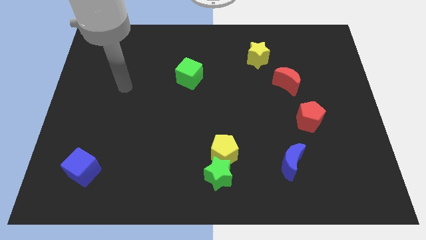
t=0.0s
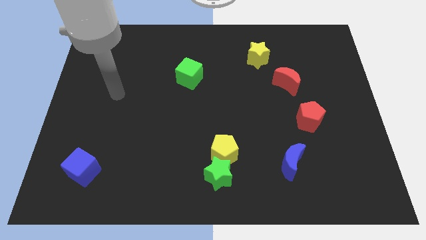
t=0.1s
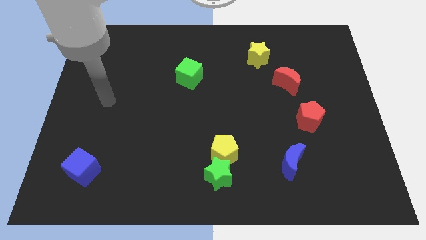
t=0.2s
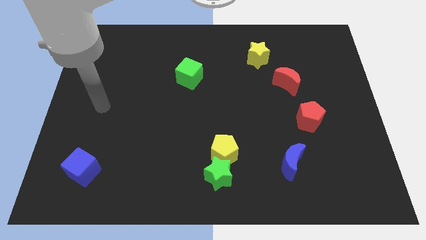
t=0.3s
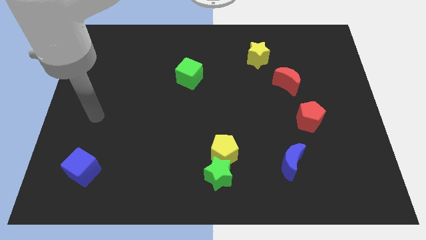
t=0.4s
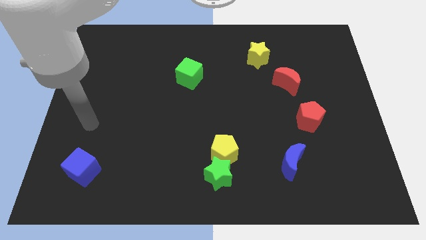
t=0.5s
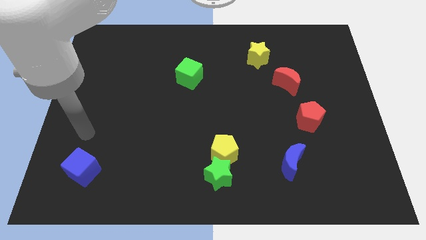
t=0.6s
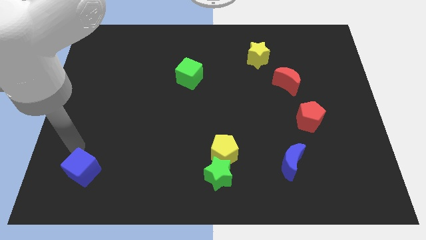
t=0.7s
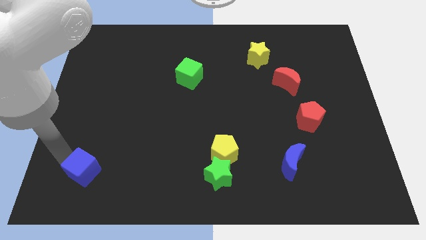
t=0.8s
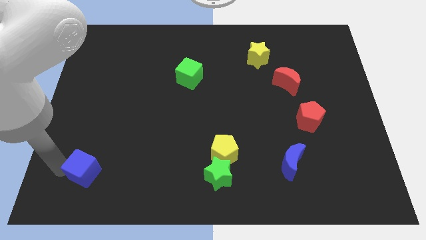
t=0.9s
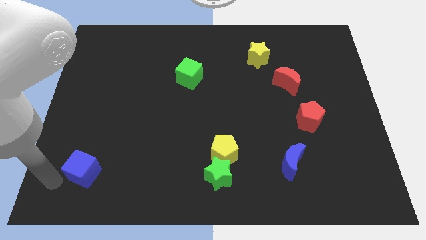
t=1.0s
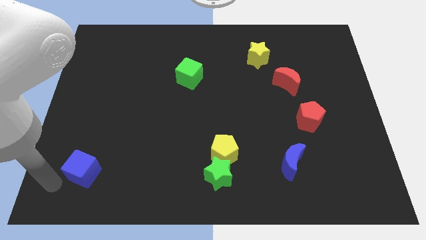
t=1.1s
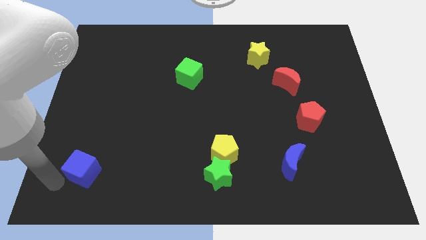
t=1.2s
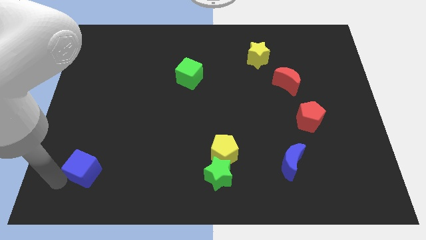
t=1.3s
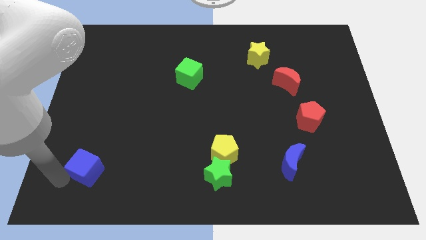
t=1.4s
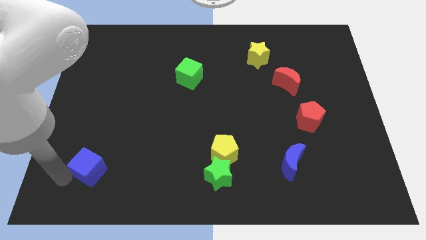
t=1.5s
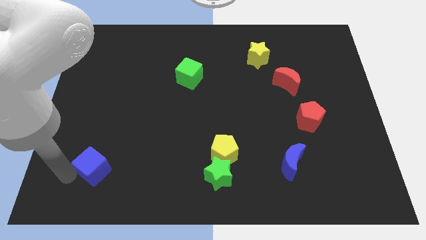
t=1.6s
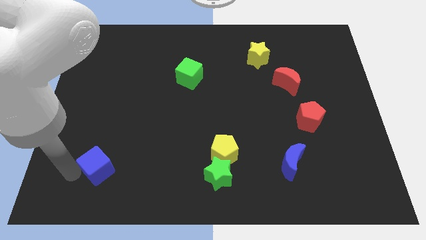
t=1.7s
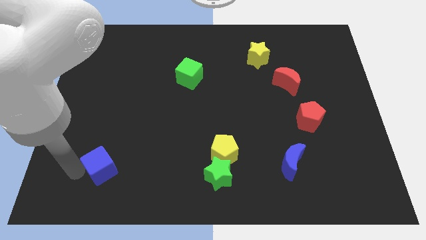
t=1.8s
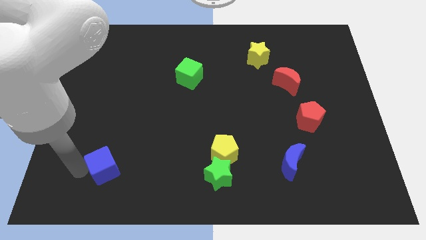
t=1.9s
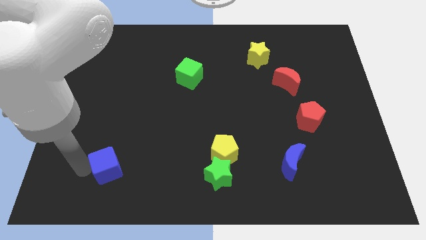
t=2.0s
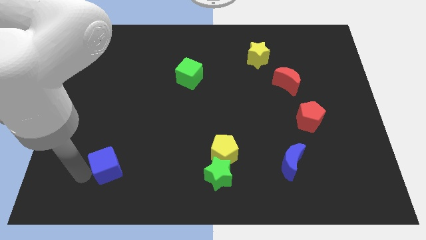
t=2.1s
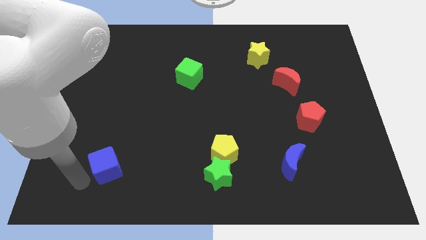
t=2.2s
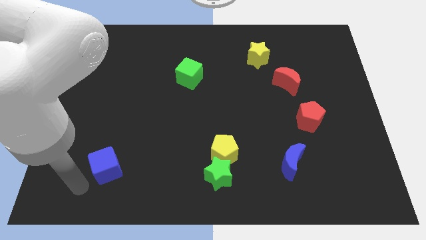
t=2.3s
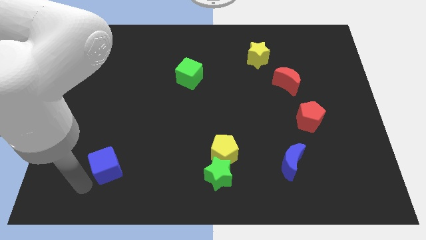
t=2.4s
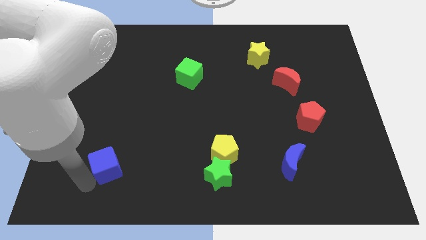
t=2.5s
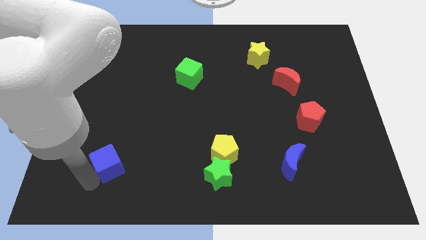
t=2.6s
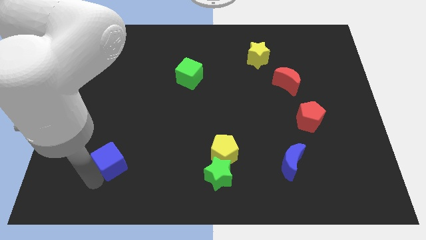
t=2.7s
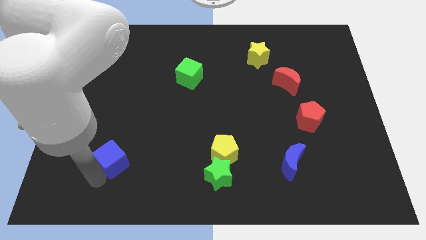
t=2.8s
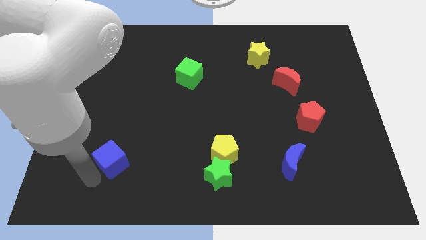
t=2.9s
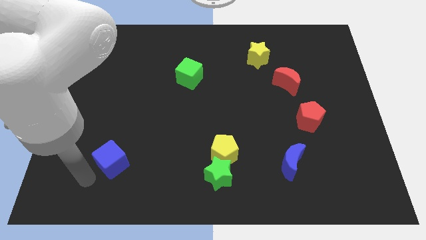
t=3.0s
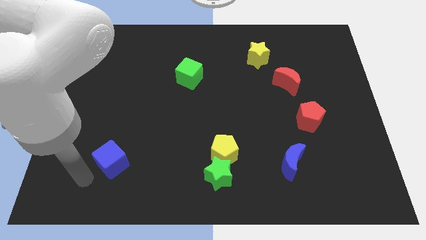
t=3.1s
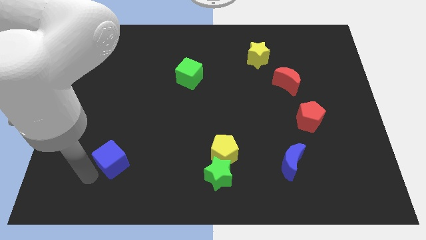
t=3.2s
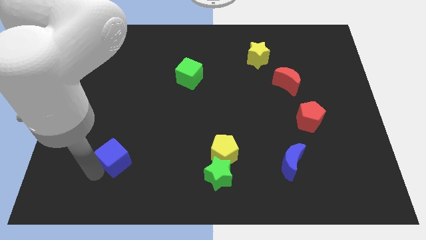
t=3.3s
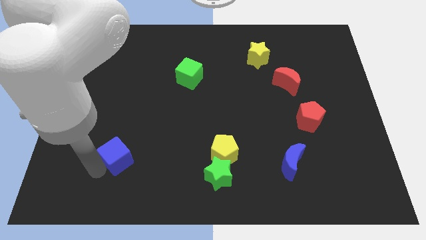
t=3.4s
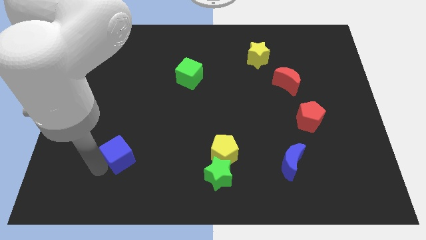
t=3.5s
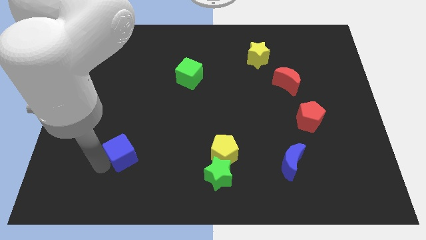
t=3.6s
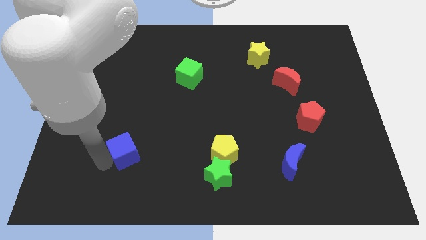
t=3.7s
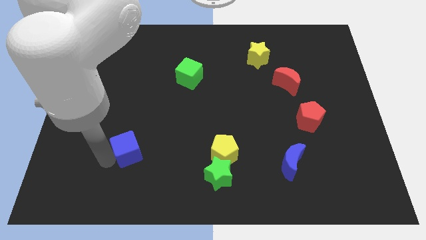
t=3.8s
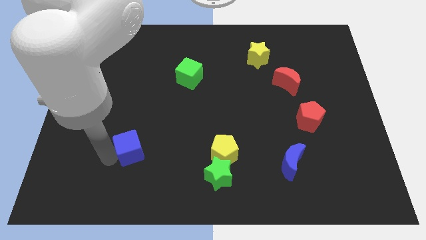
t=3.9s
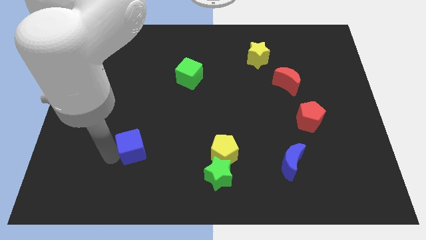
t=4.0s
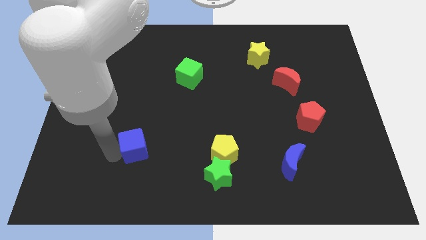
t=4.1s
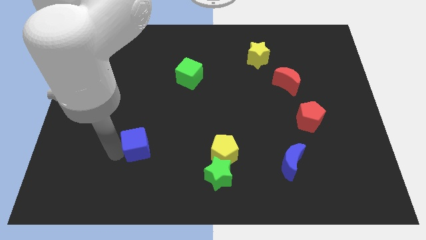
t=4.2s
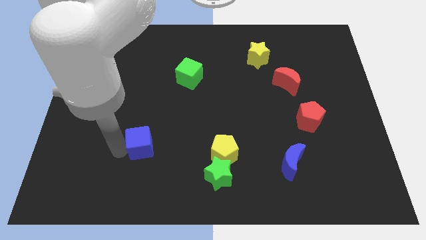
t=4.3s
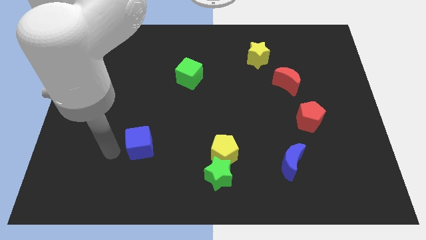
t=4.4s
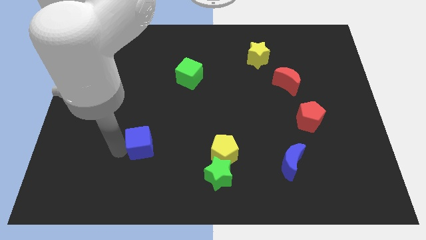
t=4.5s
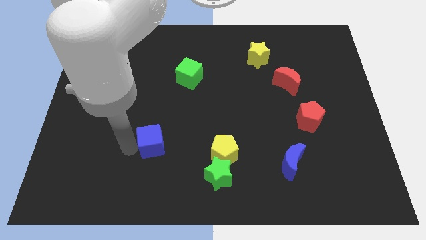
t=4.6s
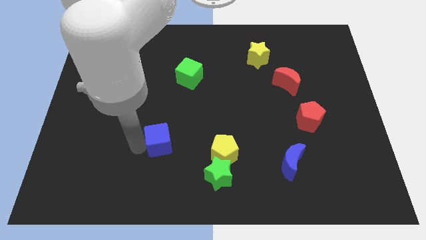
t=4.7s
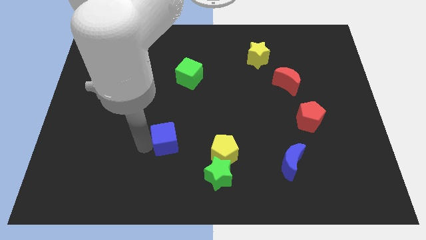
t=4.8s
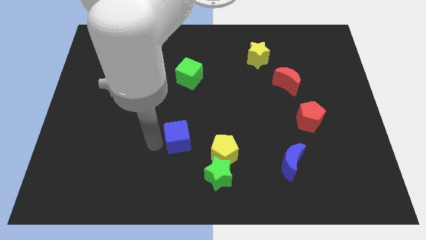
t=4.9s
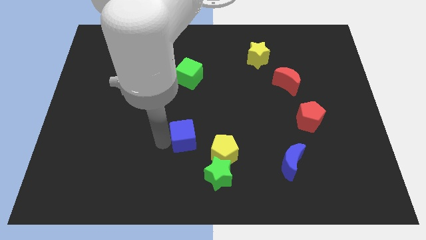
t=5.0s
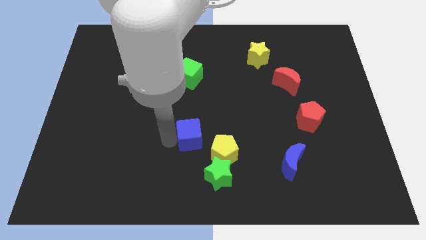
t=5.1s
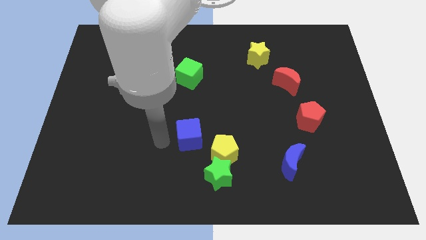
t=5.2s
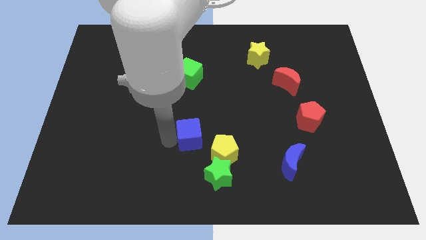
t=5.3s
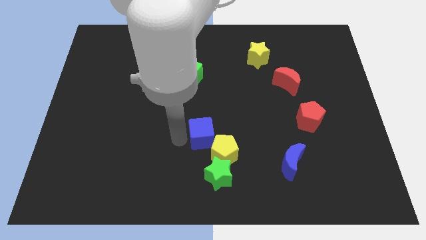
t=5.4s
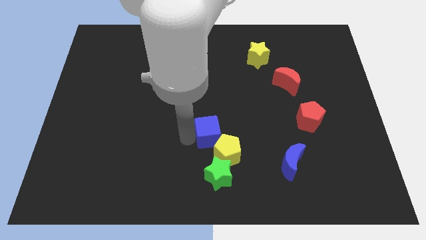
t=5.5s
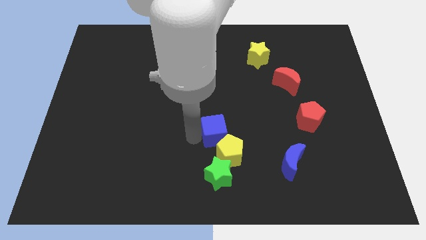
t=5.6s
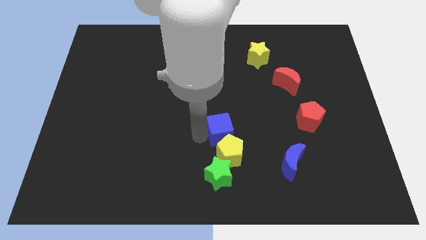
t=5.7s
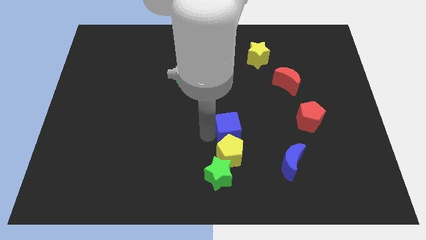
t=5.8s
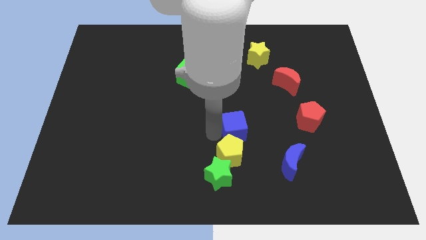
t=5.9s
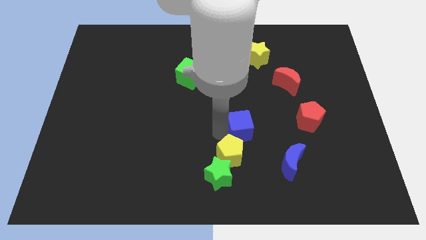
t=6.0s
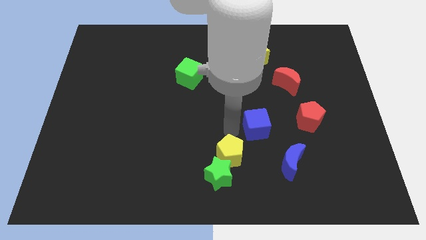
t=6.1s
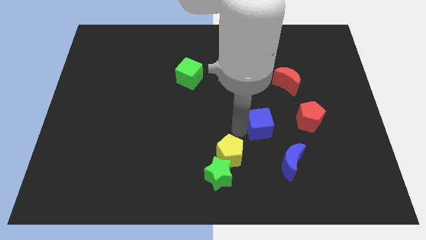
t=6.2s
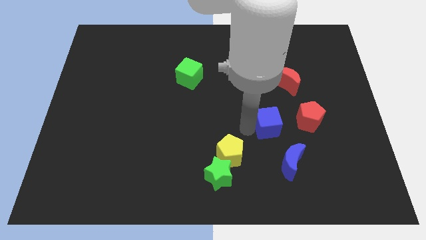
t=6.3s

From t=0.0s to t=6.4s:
put the blue cube above the blue moon

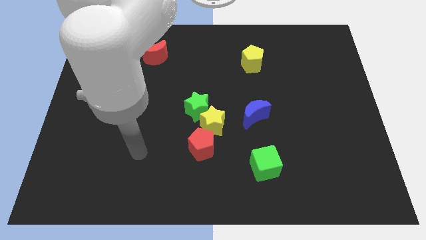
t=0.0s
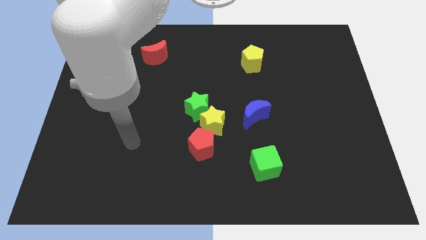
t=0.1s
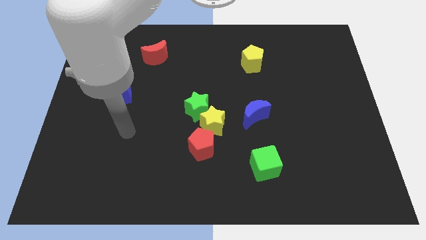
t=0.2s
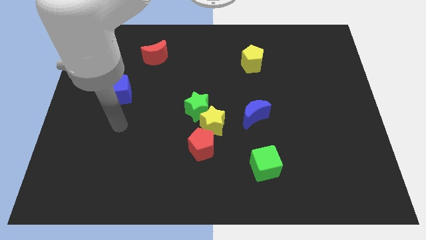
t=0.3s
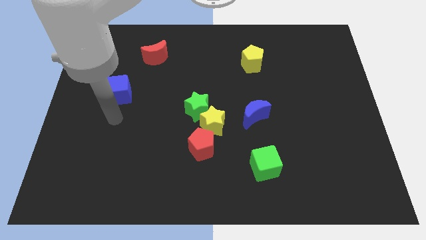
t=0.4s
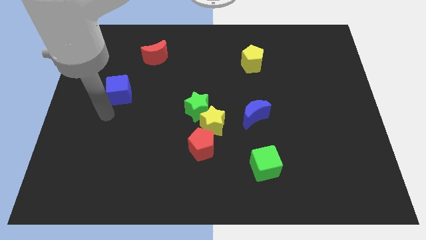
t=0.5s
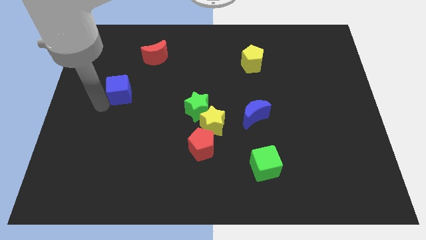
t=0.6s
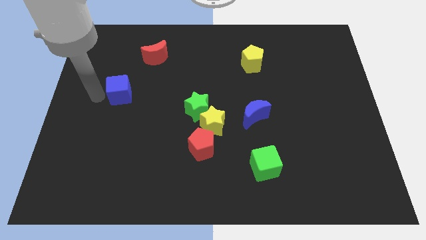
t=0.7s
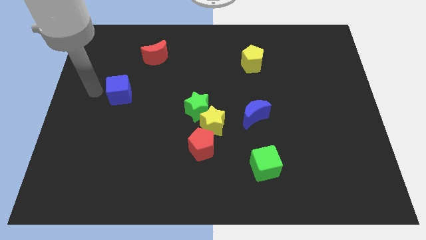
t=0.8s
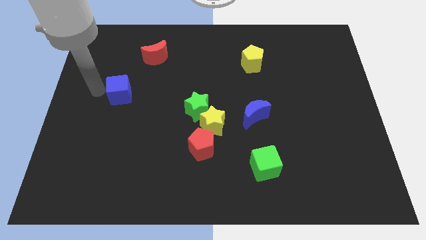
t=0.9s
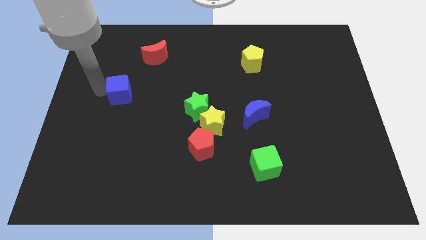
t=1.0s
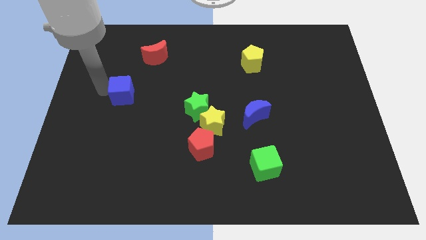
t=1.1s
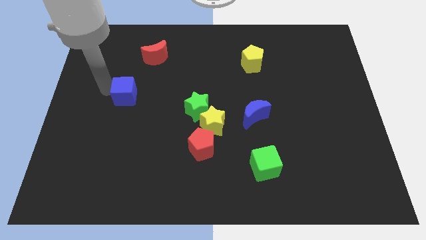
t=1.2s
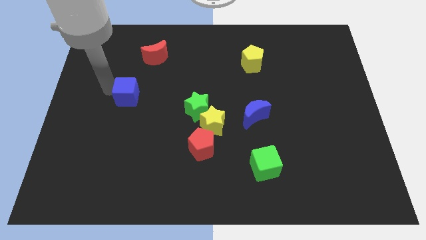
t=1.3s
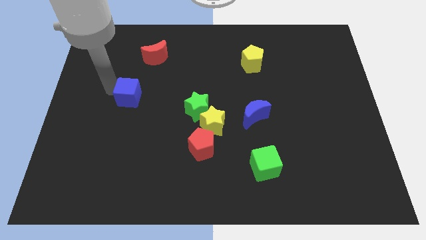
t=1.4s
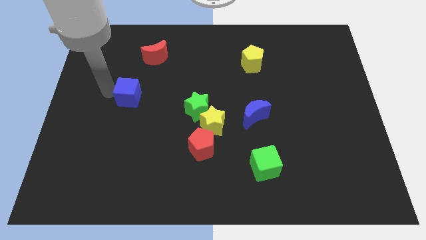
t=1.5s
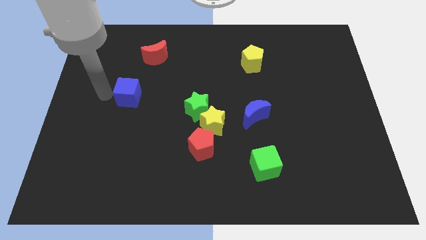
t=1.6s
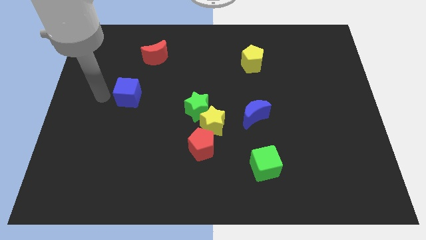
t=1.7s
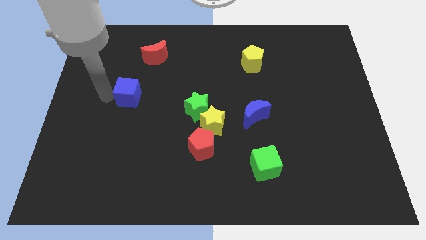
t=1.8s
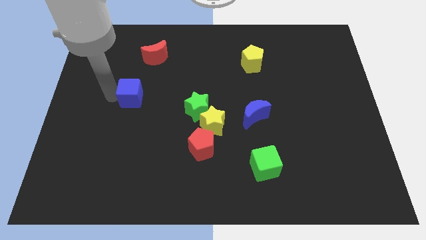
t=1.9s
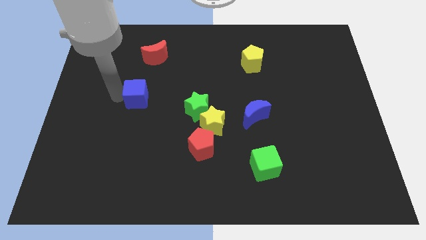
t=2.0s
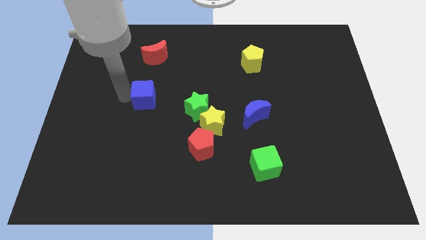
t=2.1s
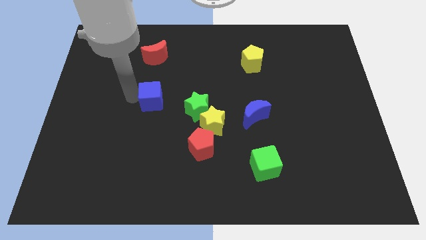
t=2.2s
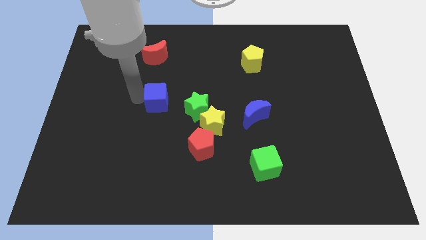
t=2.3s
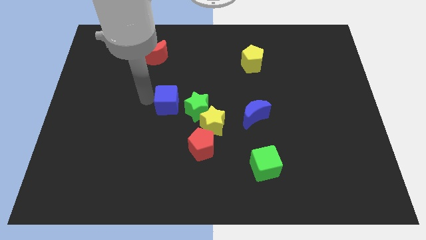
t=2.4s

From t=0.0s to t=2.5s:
move the blue cube to the top left of the yellow star
